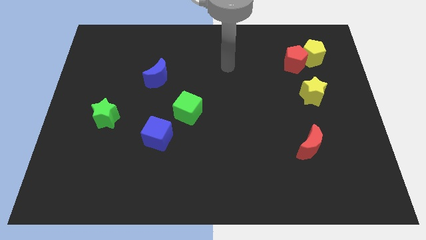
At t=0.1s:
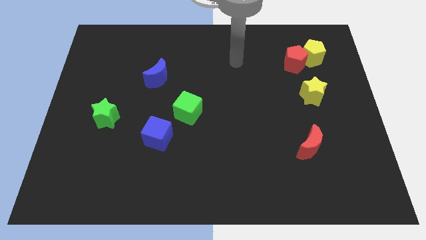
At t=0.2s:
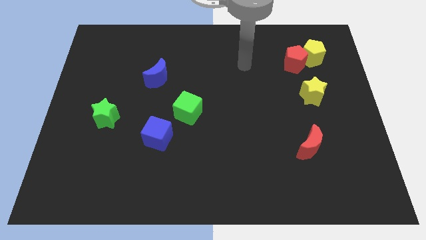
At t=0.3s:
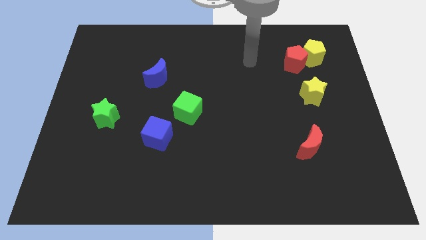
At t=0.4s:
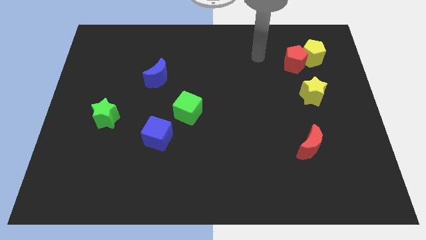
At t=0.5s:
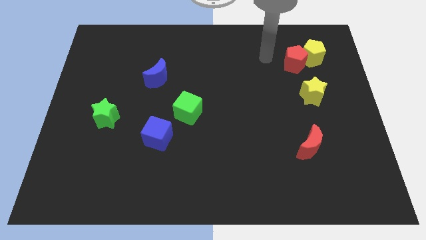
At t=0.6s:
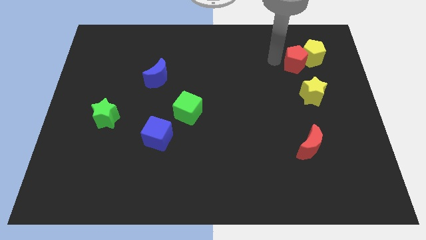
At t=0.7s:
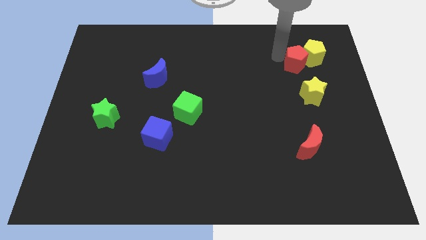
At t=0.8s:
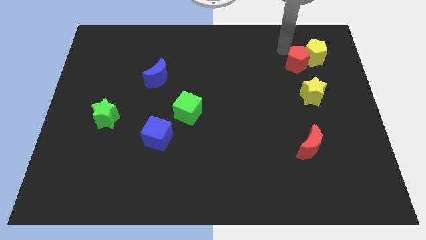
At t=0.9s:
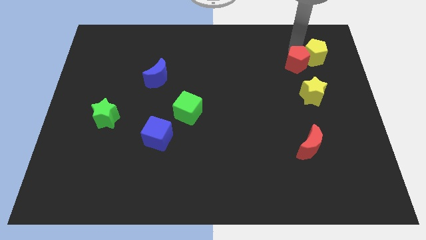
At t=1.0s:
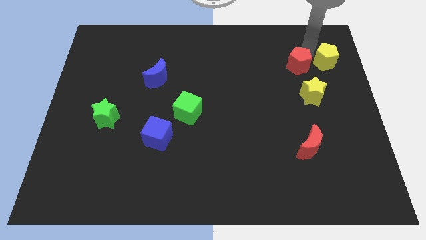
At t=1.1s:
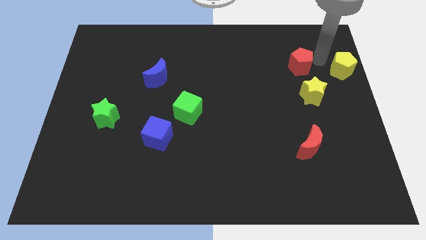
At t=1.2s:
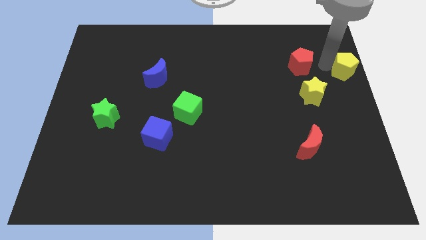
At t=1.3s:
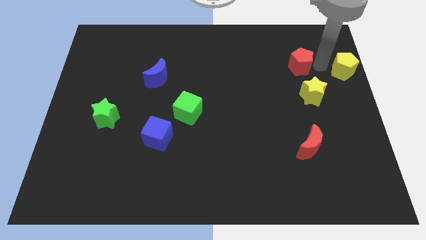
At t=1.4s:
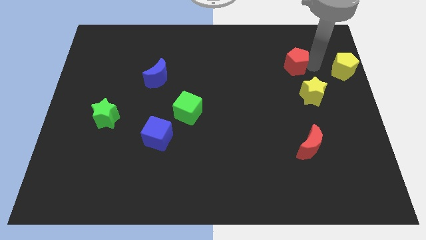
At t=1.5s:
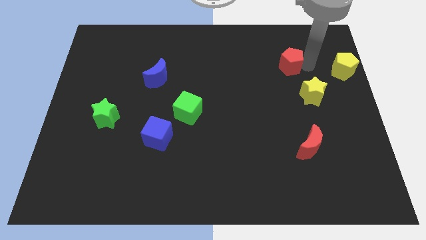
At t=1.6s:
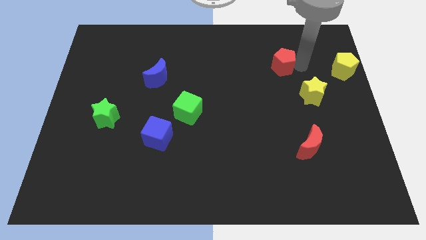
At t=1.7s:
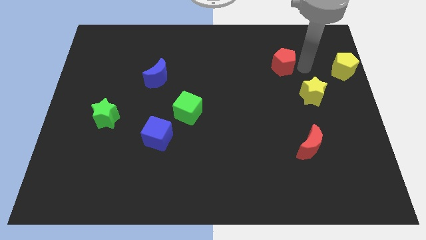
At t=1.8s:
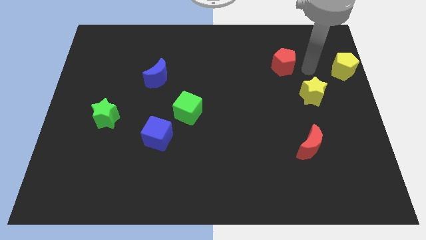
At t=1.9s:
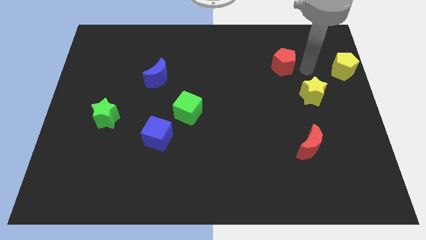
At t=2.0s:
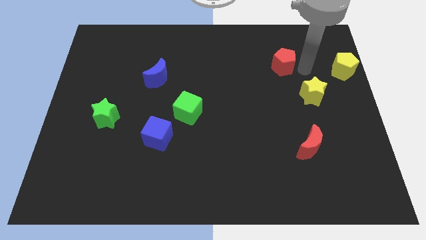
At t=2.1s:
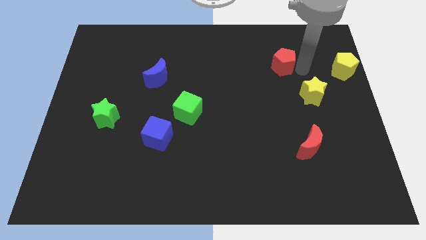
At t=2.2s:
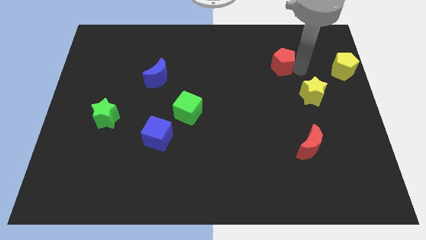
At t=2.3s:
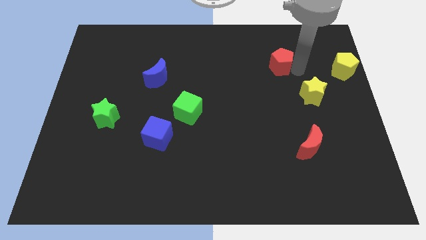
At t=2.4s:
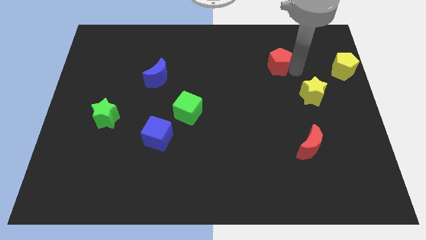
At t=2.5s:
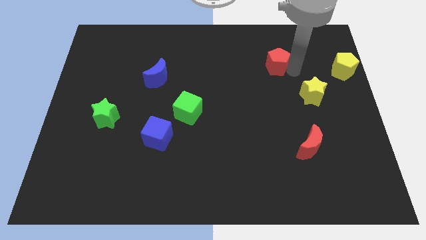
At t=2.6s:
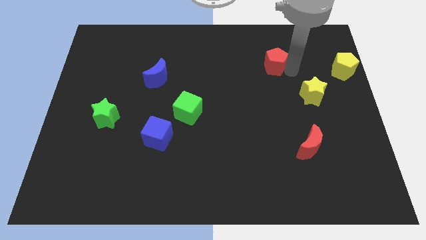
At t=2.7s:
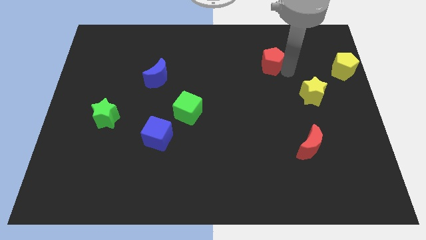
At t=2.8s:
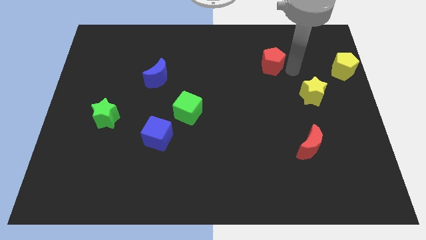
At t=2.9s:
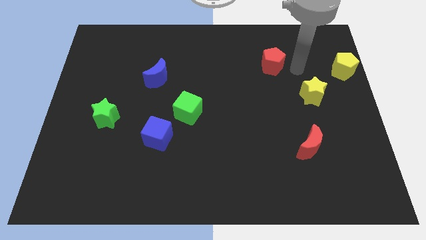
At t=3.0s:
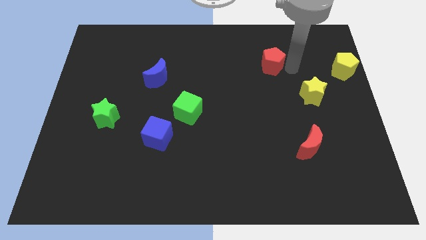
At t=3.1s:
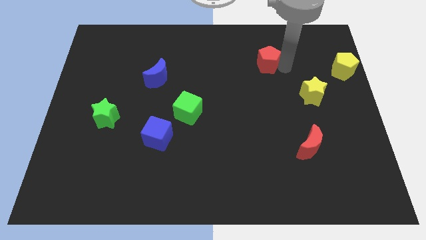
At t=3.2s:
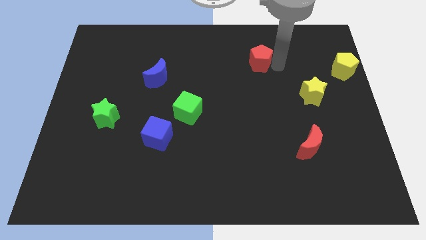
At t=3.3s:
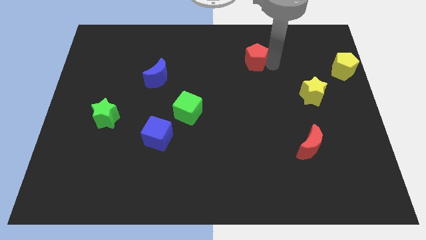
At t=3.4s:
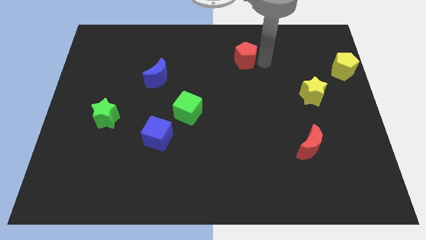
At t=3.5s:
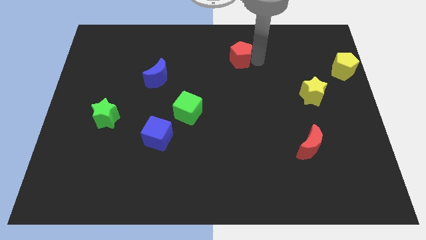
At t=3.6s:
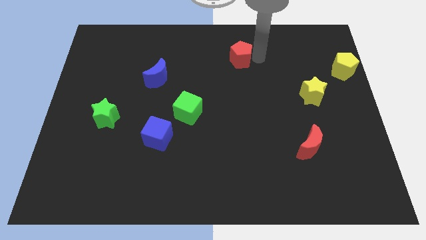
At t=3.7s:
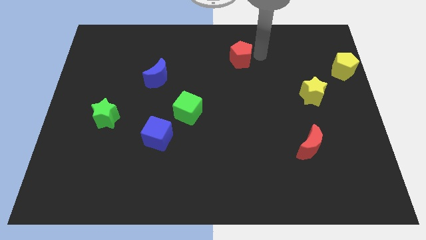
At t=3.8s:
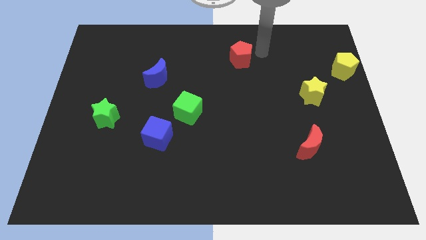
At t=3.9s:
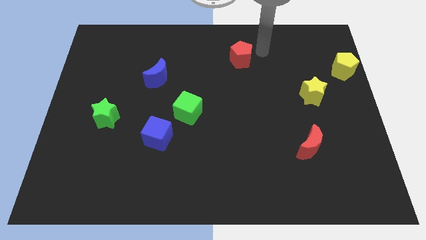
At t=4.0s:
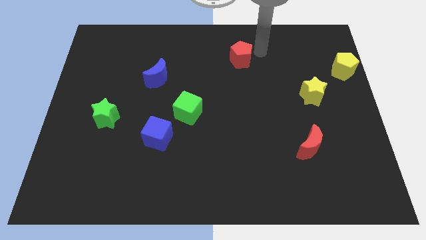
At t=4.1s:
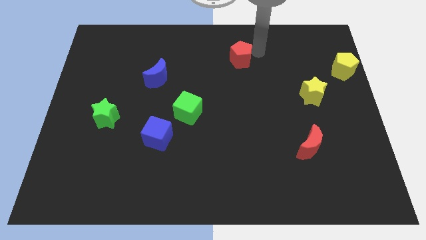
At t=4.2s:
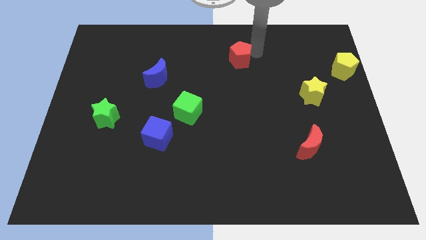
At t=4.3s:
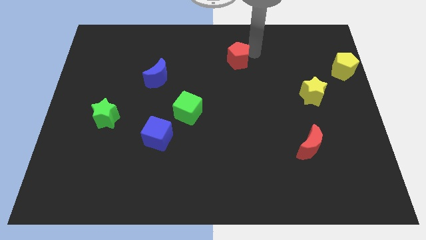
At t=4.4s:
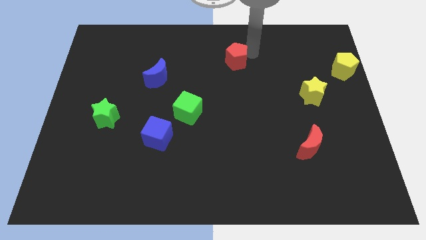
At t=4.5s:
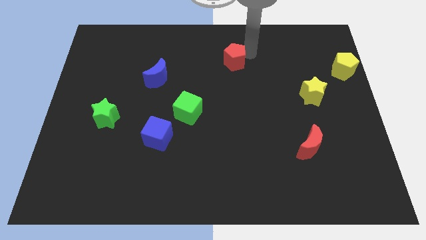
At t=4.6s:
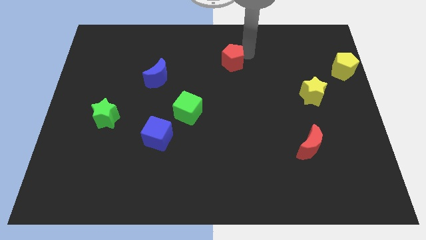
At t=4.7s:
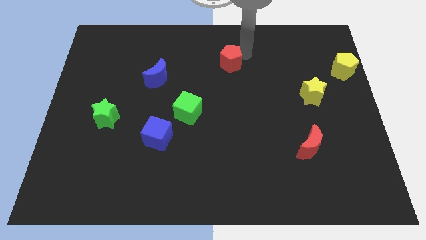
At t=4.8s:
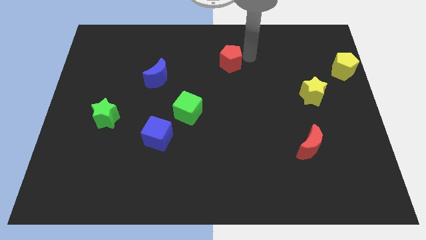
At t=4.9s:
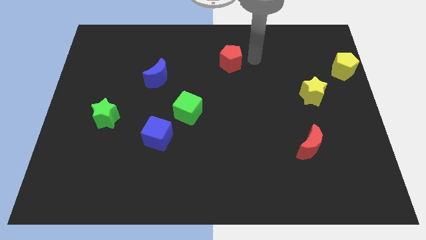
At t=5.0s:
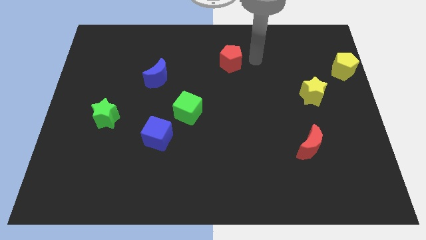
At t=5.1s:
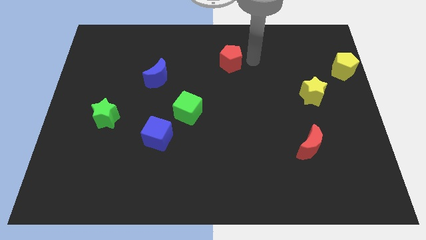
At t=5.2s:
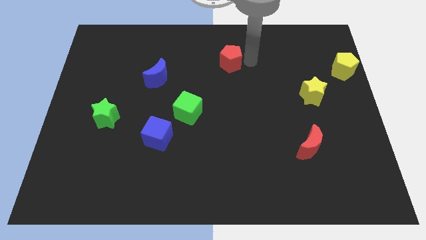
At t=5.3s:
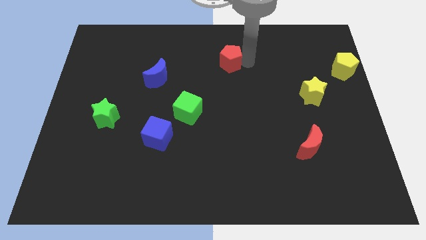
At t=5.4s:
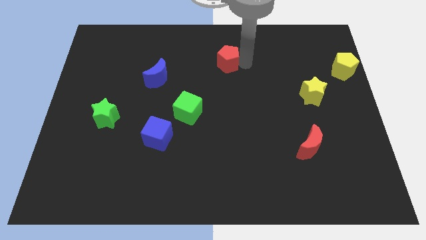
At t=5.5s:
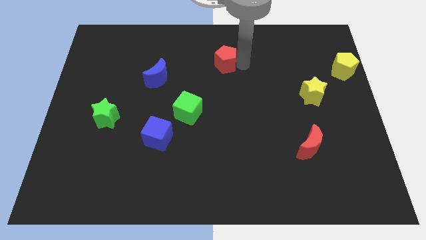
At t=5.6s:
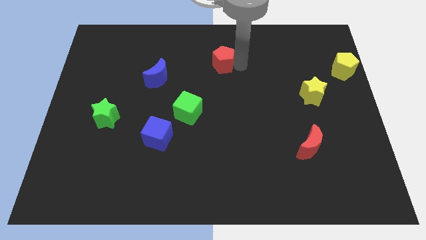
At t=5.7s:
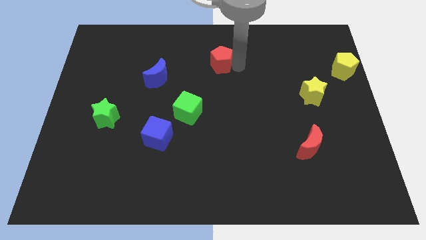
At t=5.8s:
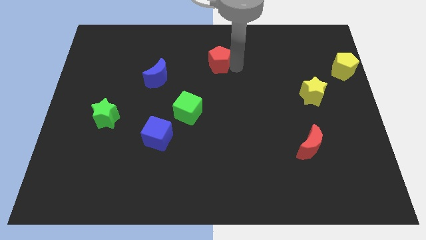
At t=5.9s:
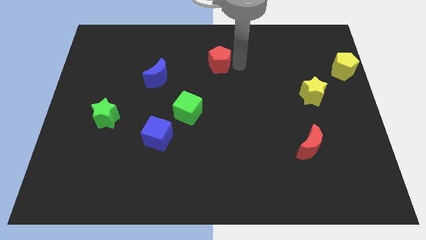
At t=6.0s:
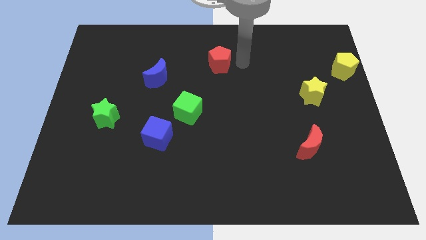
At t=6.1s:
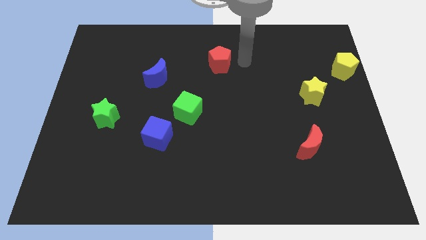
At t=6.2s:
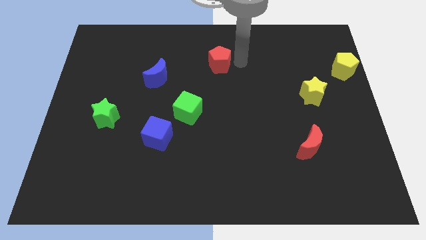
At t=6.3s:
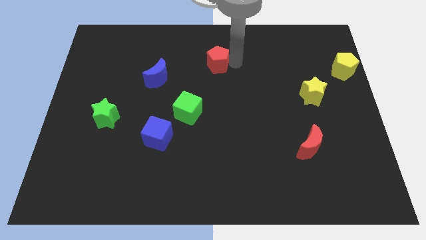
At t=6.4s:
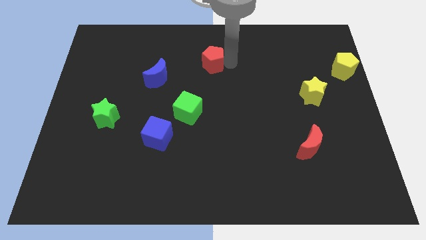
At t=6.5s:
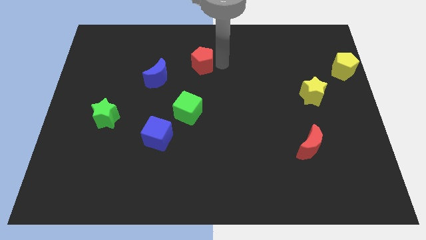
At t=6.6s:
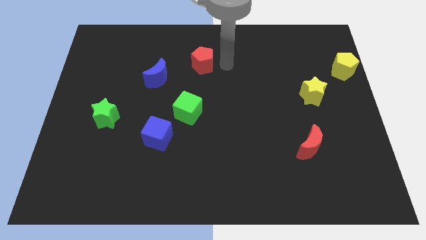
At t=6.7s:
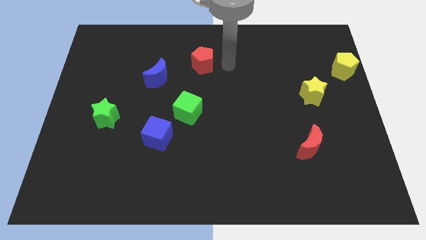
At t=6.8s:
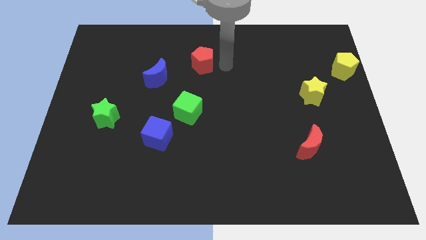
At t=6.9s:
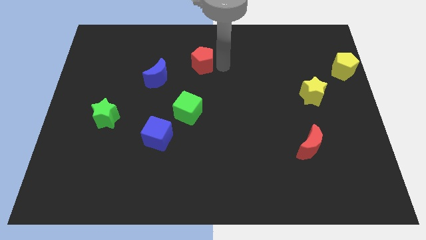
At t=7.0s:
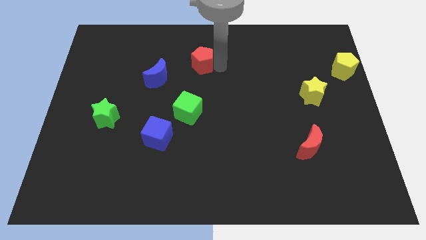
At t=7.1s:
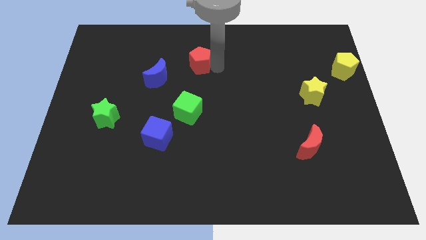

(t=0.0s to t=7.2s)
push the red pentagon to the top right of the blue moon
